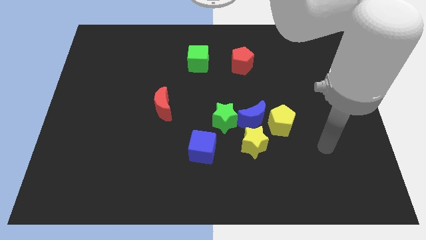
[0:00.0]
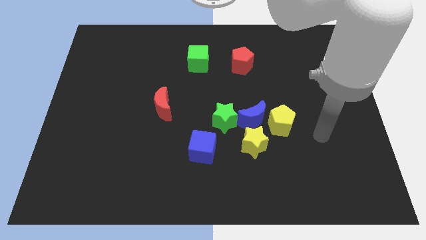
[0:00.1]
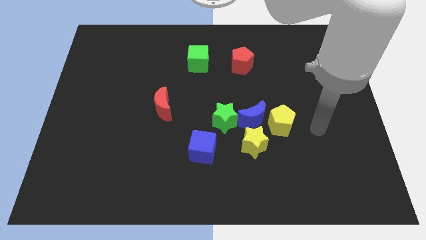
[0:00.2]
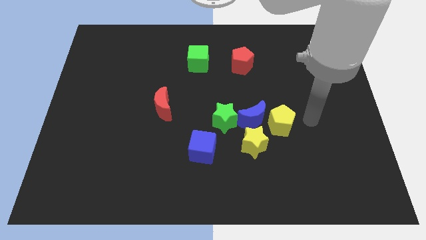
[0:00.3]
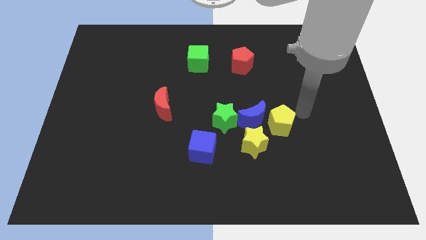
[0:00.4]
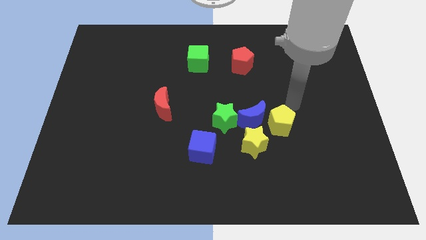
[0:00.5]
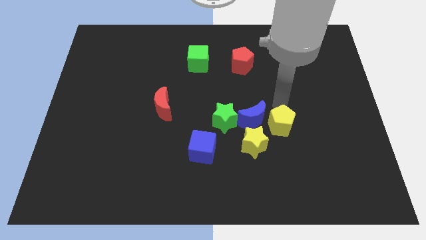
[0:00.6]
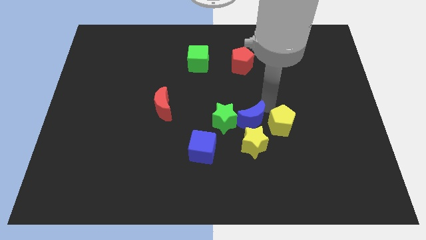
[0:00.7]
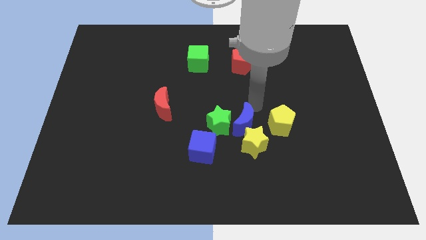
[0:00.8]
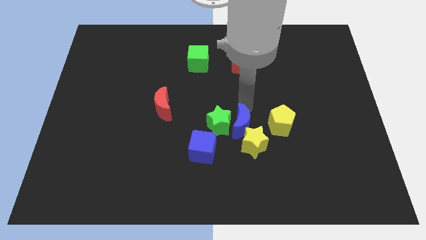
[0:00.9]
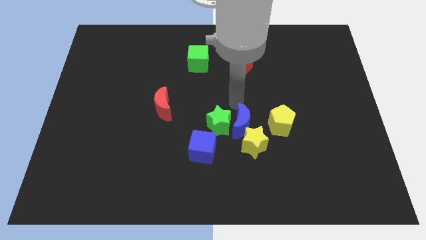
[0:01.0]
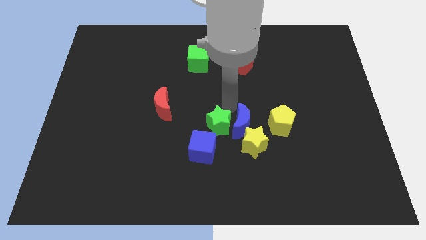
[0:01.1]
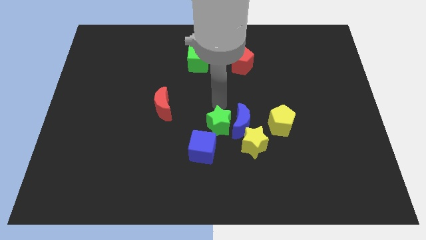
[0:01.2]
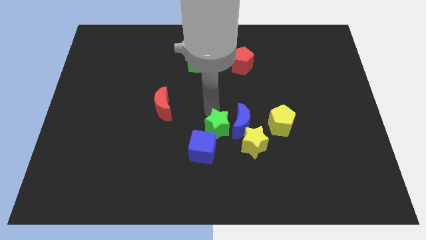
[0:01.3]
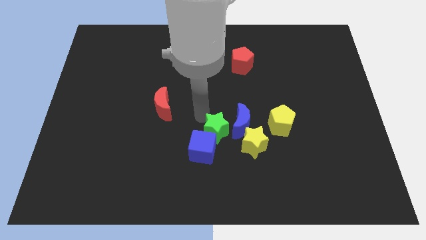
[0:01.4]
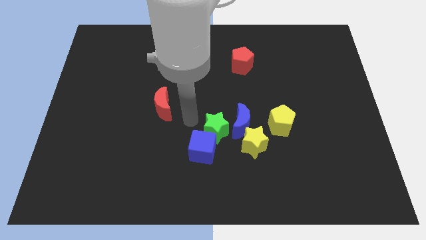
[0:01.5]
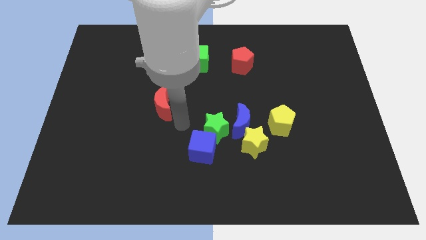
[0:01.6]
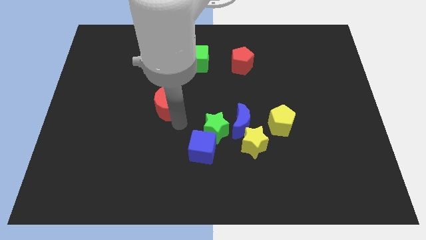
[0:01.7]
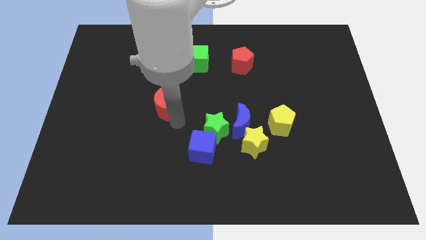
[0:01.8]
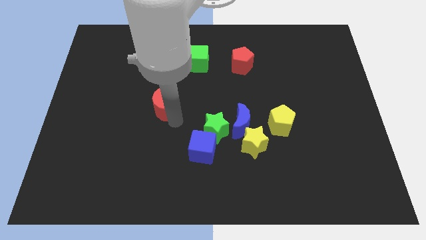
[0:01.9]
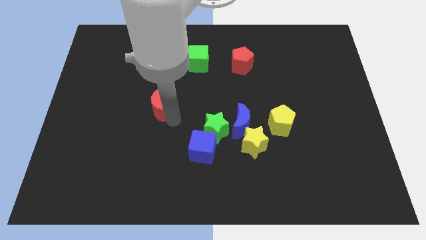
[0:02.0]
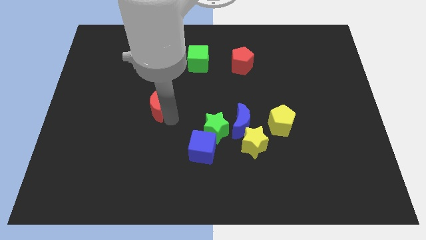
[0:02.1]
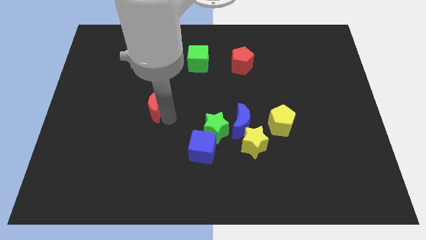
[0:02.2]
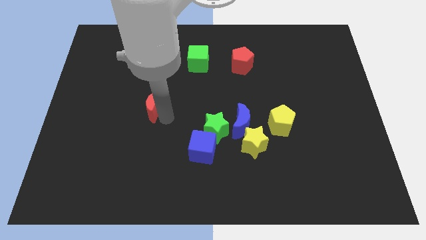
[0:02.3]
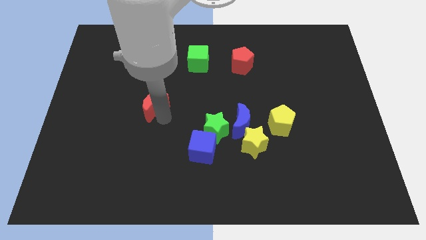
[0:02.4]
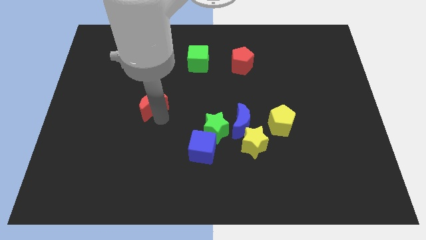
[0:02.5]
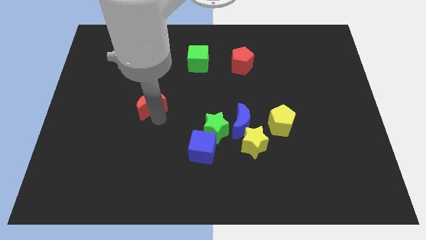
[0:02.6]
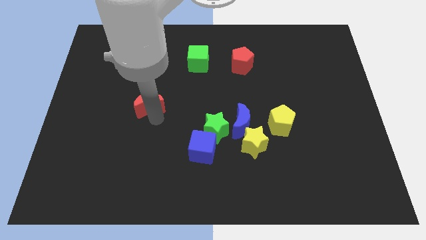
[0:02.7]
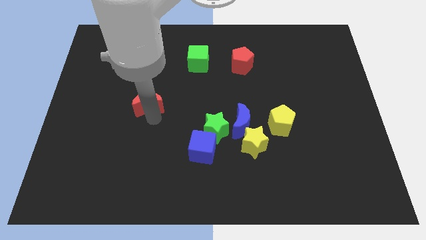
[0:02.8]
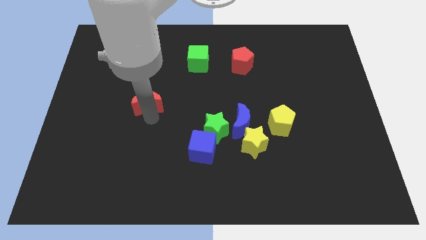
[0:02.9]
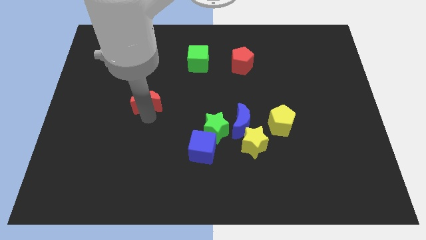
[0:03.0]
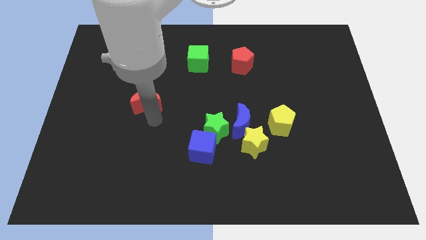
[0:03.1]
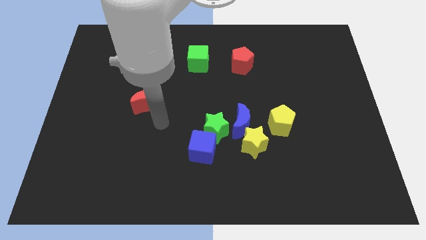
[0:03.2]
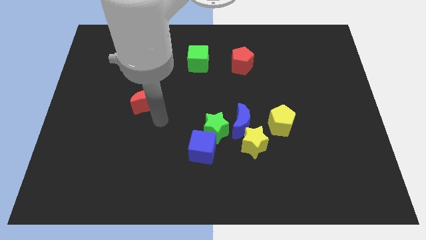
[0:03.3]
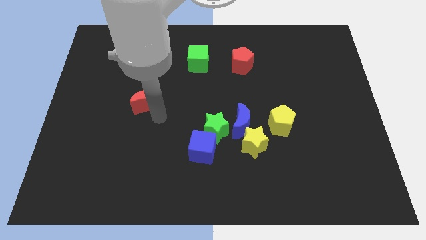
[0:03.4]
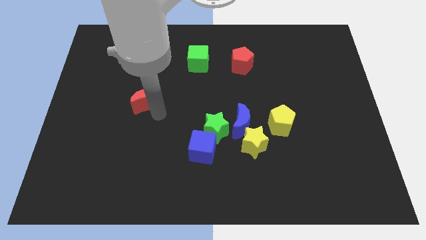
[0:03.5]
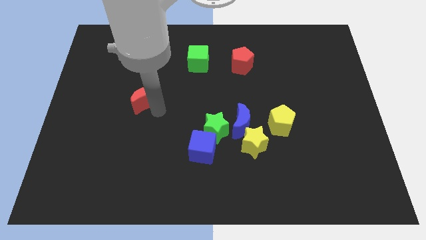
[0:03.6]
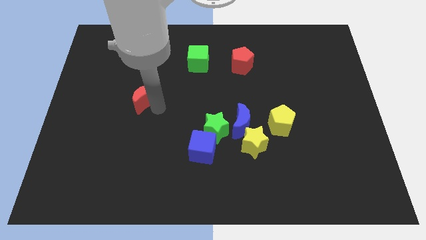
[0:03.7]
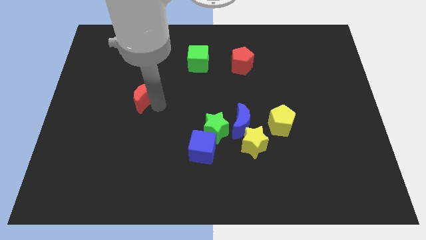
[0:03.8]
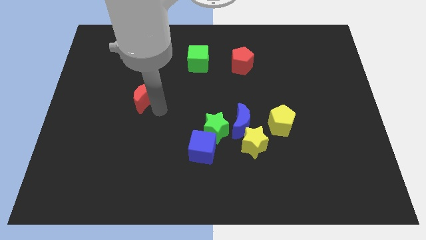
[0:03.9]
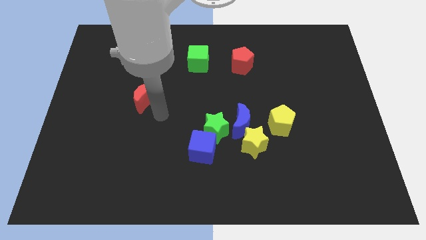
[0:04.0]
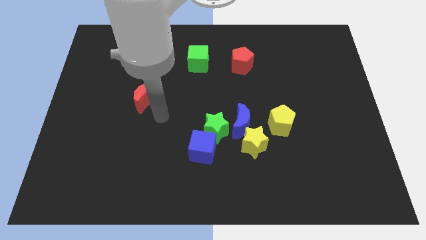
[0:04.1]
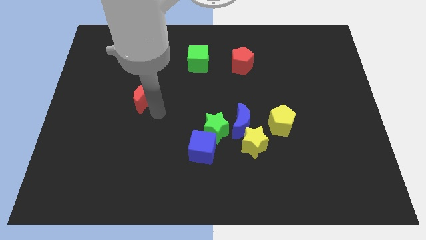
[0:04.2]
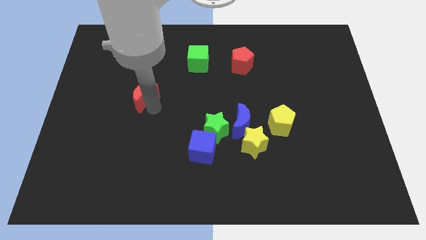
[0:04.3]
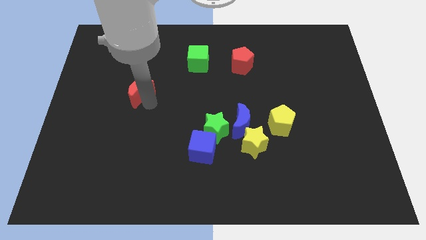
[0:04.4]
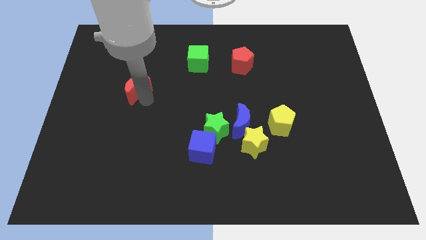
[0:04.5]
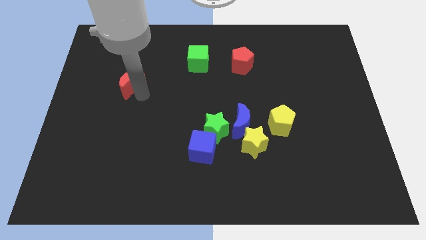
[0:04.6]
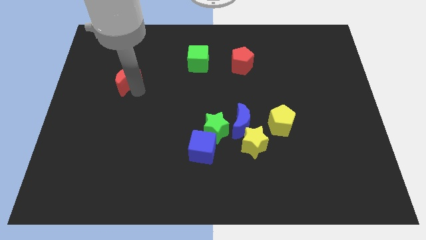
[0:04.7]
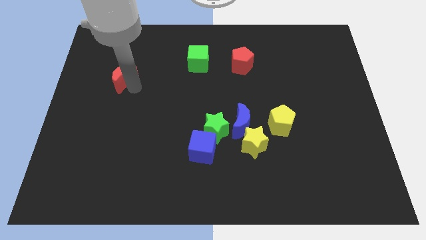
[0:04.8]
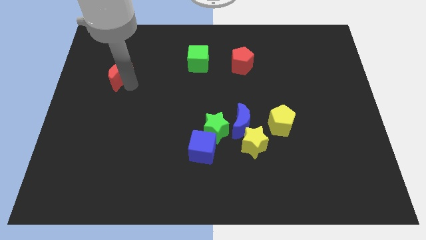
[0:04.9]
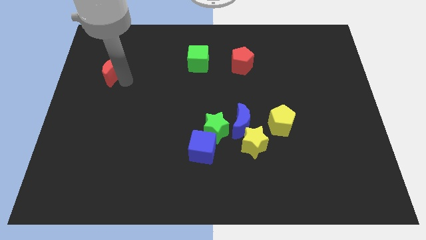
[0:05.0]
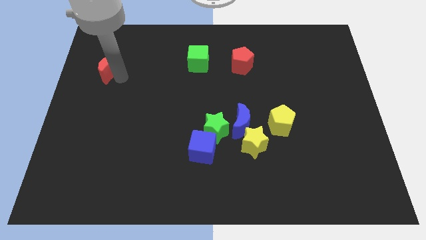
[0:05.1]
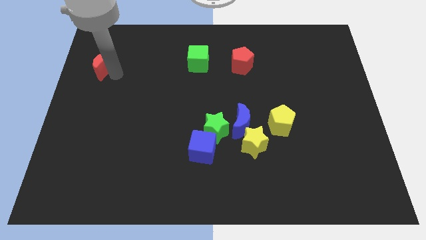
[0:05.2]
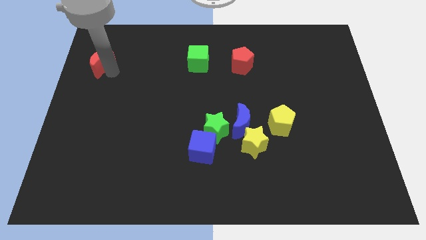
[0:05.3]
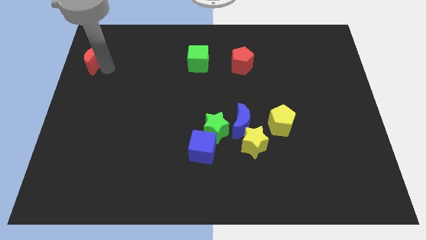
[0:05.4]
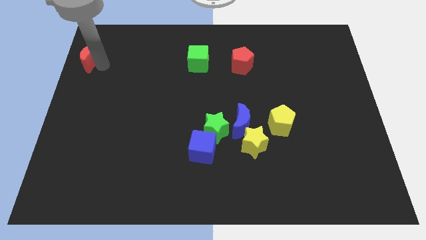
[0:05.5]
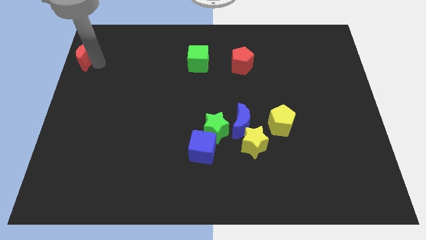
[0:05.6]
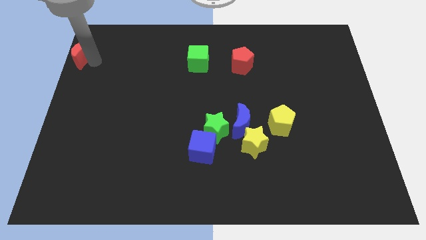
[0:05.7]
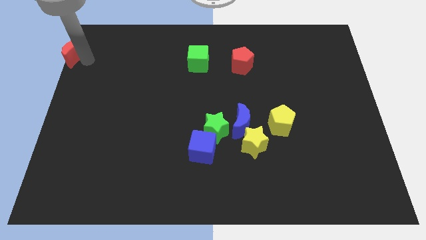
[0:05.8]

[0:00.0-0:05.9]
move the red moon to the top left

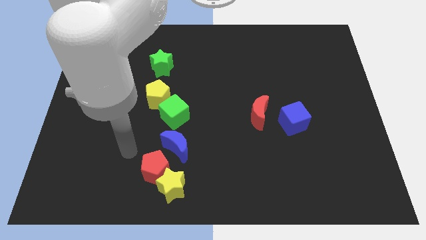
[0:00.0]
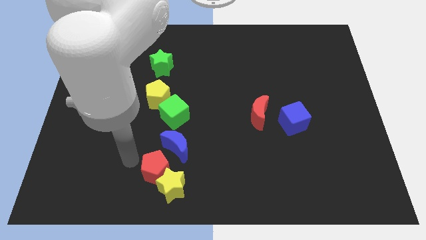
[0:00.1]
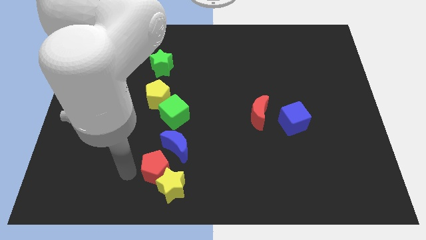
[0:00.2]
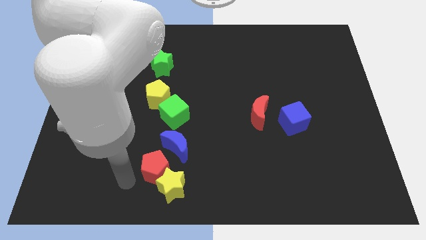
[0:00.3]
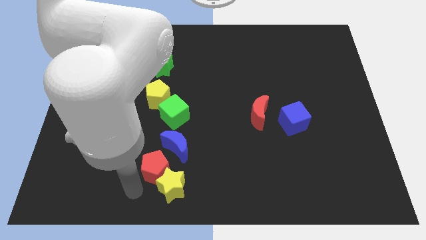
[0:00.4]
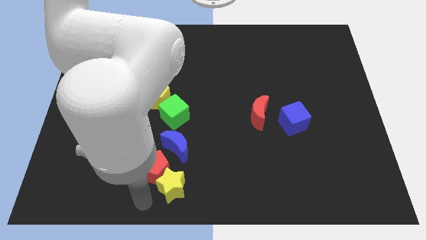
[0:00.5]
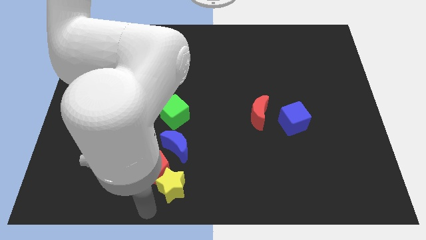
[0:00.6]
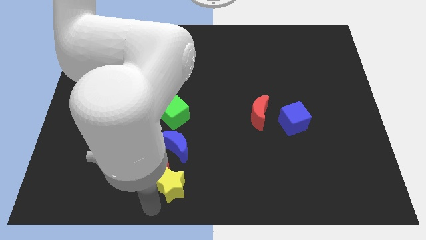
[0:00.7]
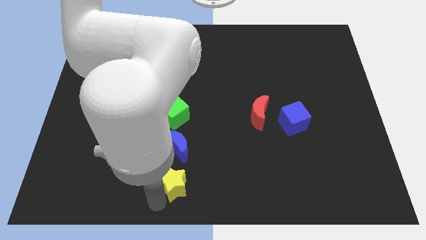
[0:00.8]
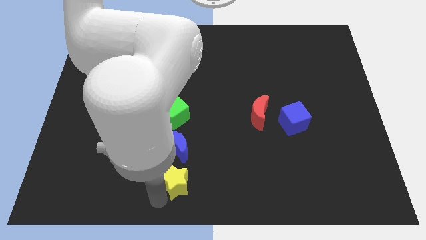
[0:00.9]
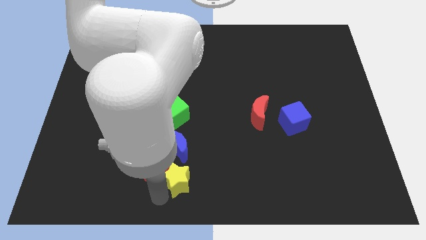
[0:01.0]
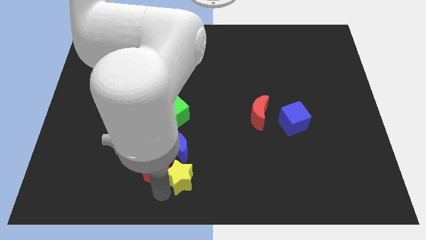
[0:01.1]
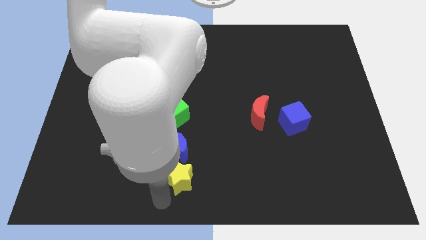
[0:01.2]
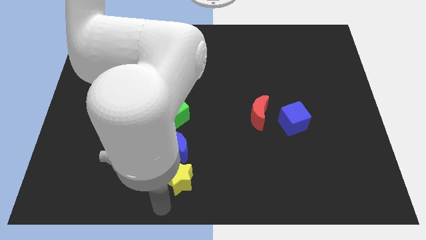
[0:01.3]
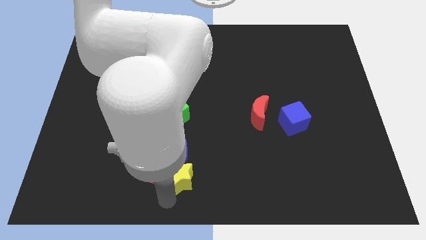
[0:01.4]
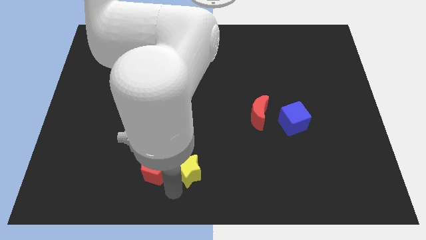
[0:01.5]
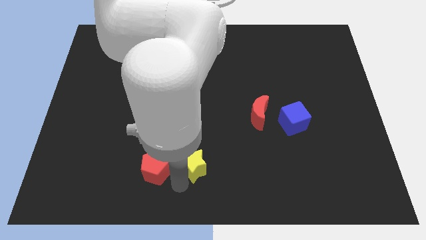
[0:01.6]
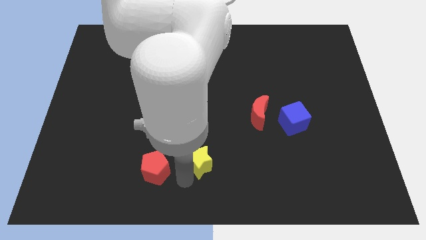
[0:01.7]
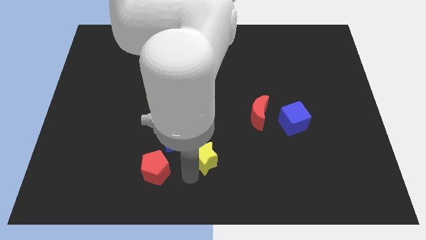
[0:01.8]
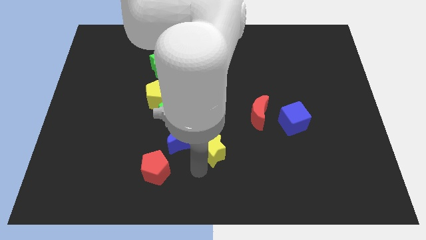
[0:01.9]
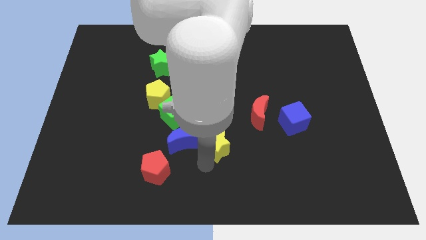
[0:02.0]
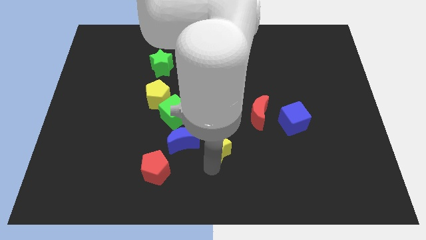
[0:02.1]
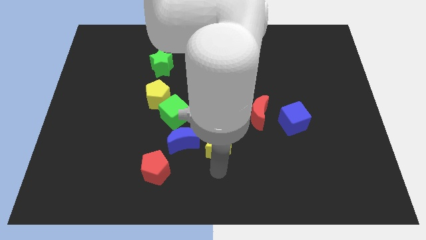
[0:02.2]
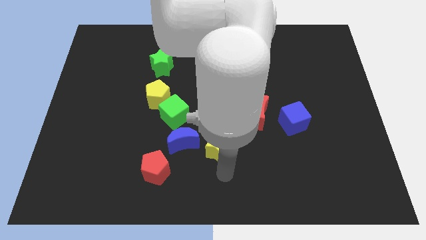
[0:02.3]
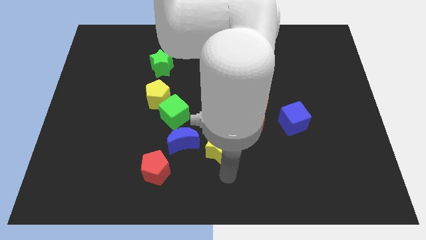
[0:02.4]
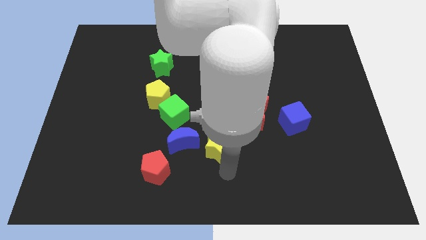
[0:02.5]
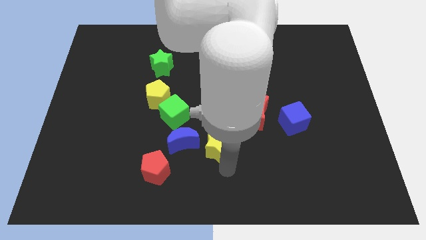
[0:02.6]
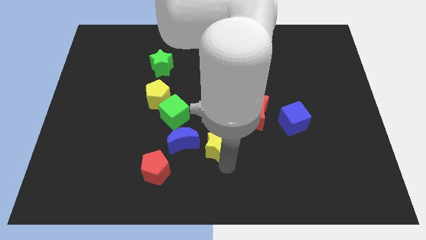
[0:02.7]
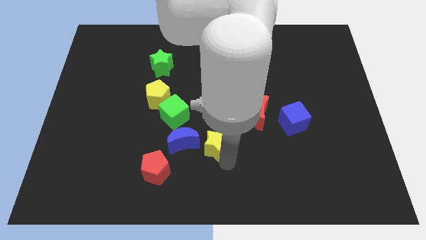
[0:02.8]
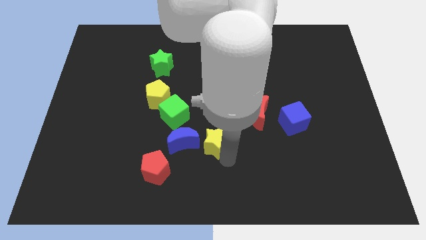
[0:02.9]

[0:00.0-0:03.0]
push the yellow star to the center
